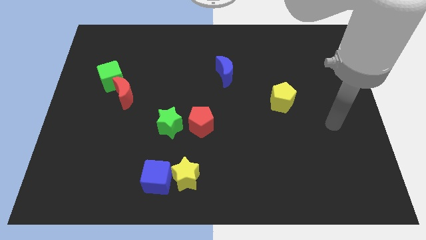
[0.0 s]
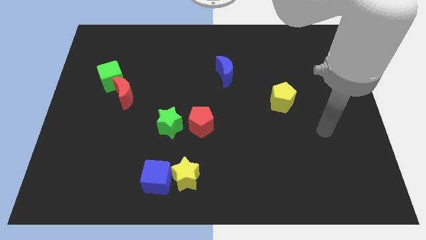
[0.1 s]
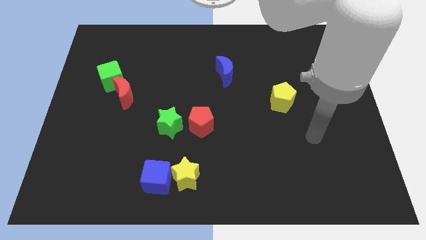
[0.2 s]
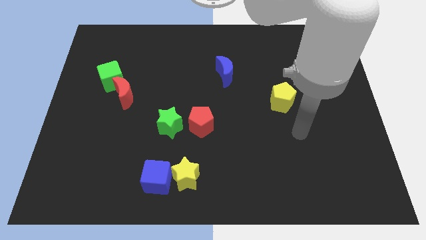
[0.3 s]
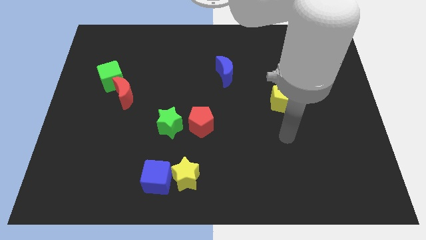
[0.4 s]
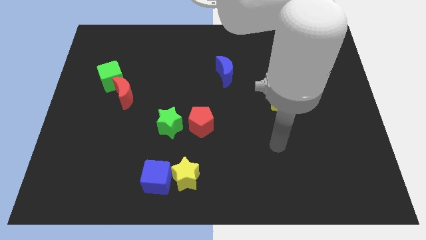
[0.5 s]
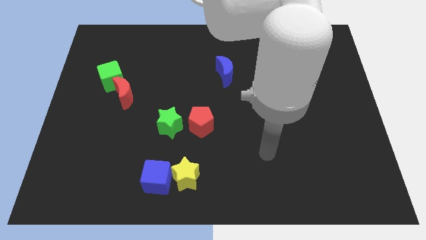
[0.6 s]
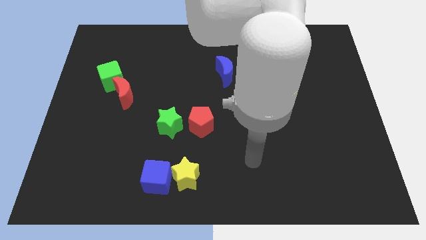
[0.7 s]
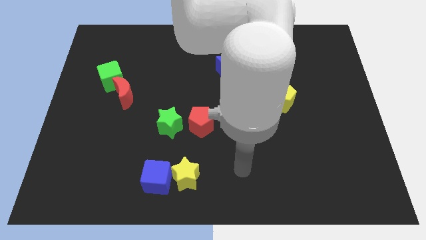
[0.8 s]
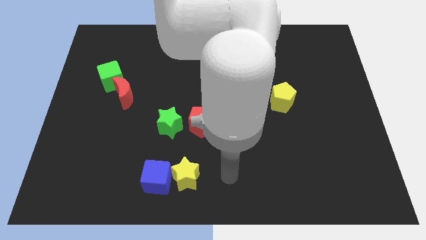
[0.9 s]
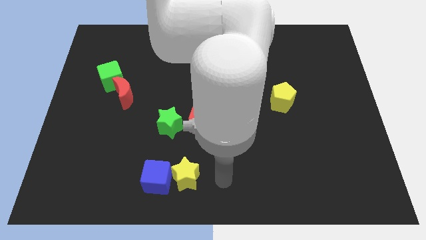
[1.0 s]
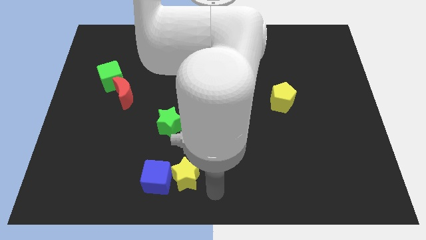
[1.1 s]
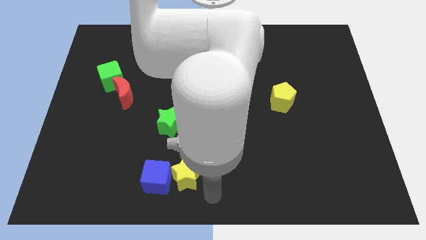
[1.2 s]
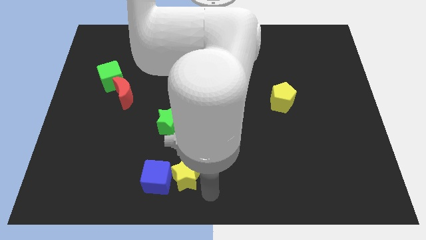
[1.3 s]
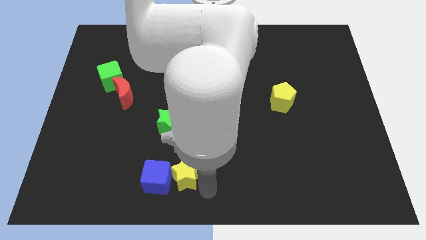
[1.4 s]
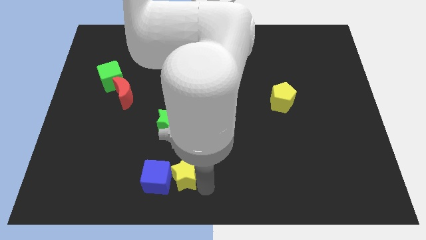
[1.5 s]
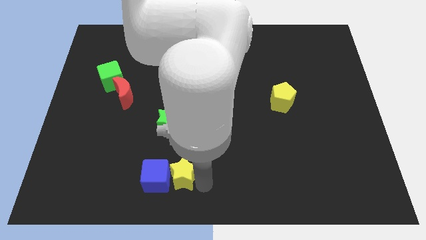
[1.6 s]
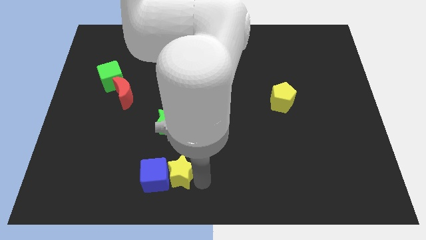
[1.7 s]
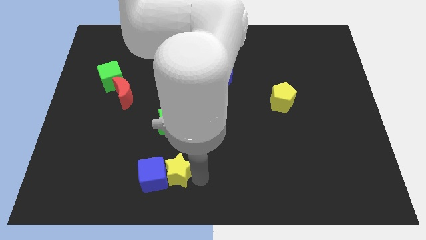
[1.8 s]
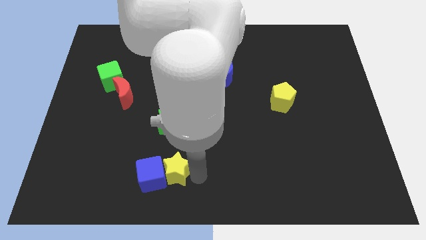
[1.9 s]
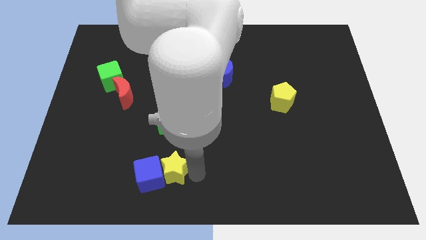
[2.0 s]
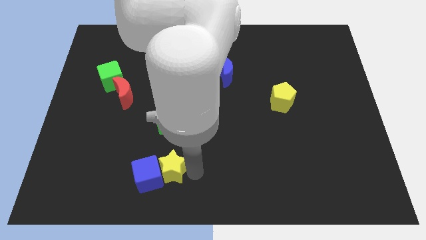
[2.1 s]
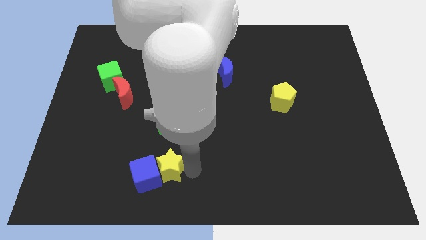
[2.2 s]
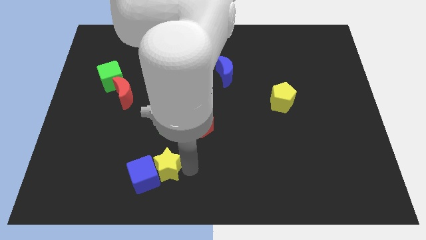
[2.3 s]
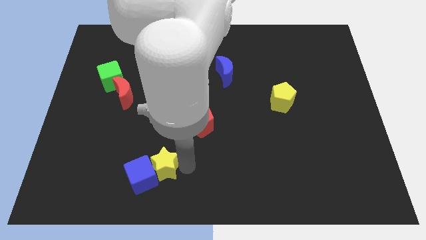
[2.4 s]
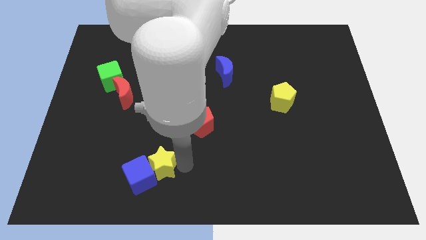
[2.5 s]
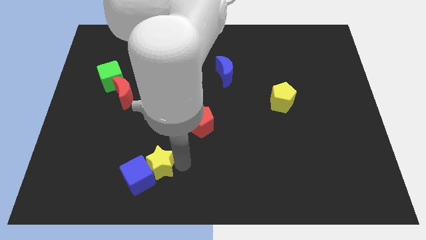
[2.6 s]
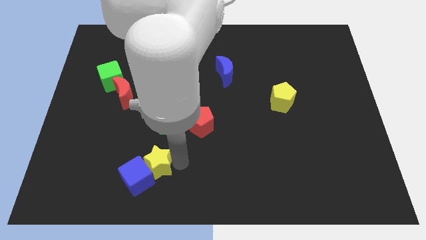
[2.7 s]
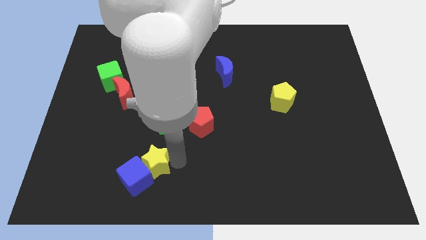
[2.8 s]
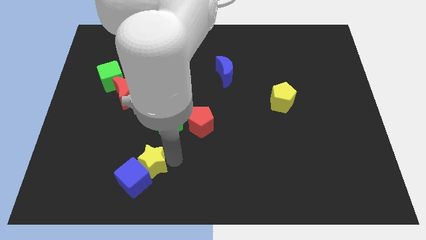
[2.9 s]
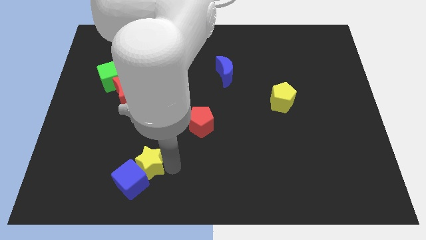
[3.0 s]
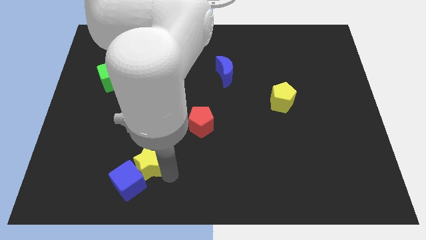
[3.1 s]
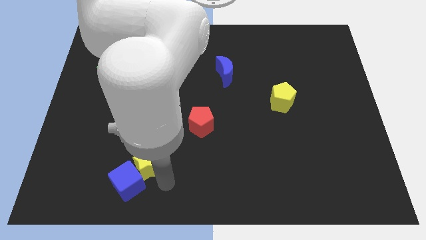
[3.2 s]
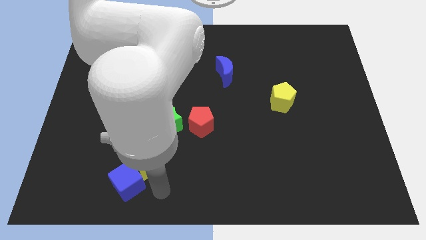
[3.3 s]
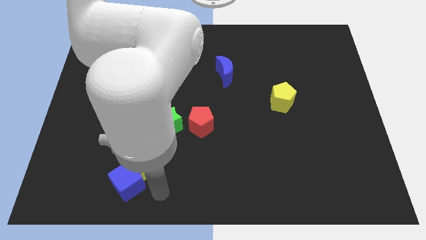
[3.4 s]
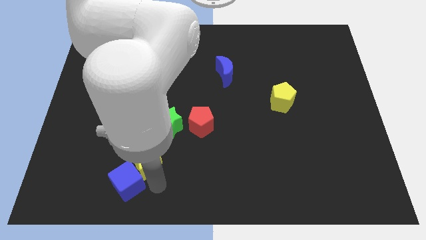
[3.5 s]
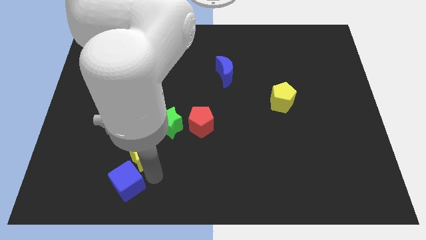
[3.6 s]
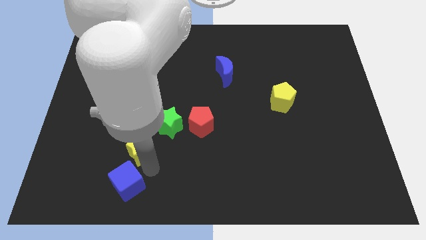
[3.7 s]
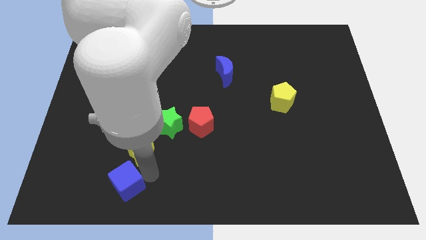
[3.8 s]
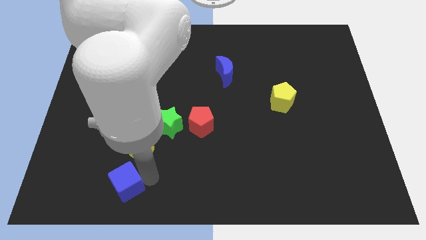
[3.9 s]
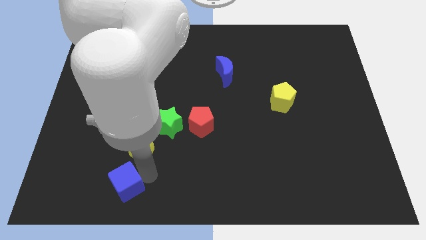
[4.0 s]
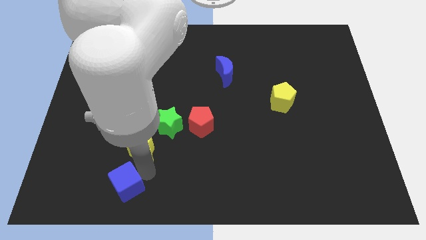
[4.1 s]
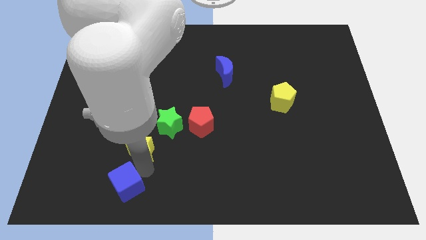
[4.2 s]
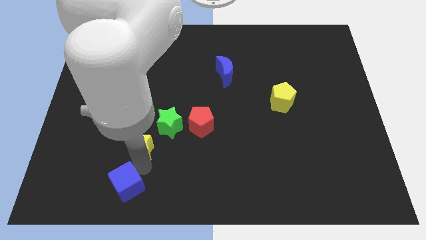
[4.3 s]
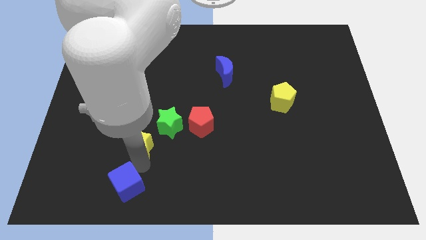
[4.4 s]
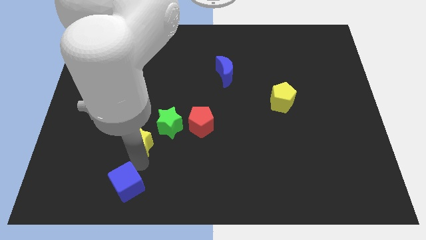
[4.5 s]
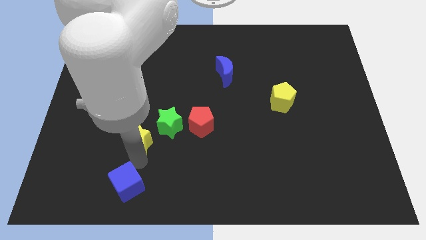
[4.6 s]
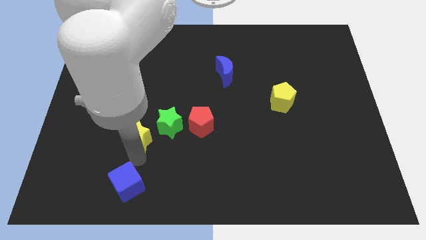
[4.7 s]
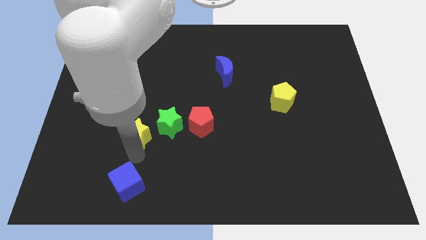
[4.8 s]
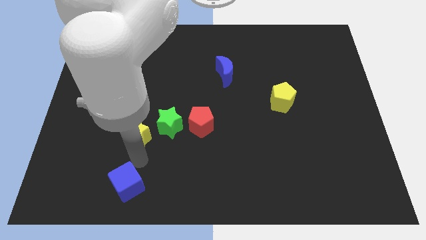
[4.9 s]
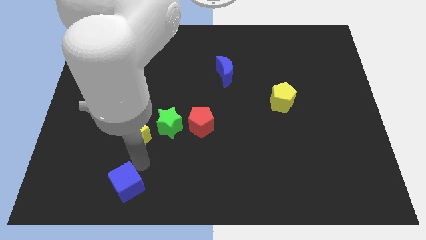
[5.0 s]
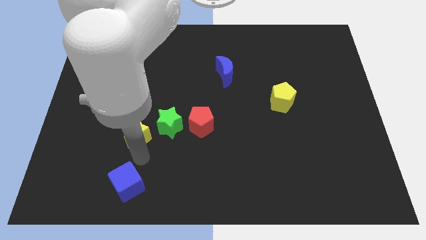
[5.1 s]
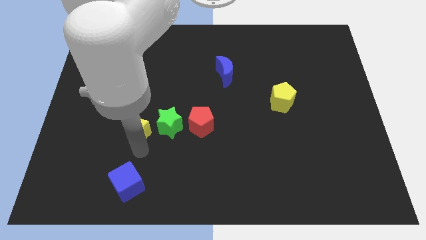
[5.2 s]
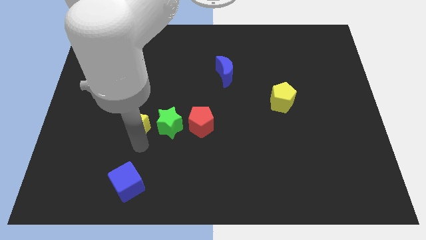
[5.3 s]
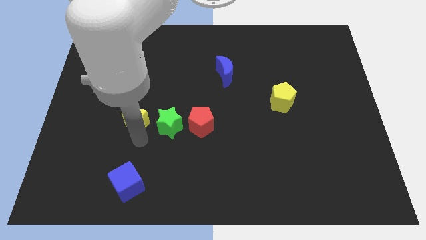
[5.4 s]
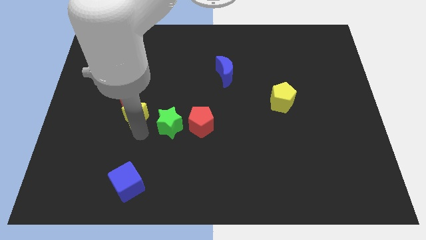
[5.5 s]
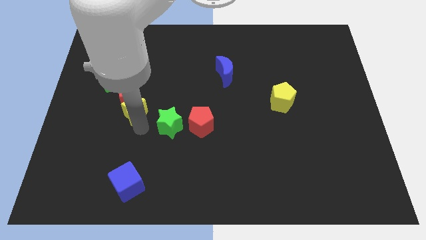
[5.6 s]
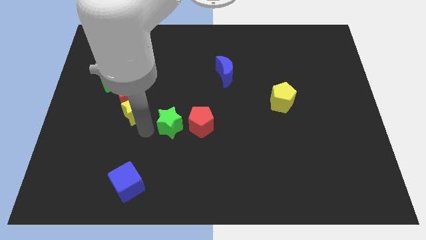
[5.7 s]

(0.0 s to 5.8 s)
put the yellow star towards the red moon
